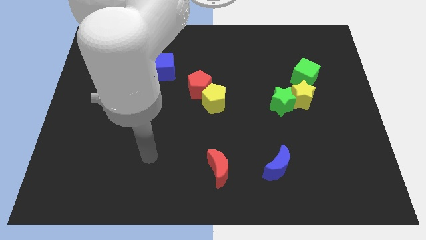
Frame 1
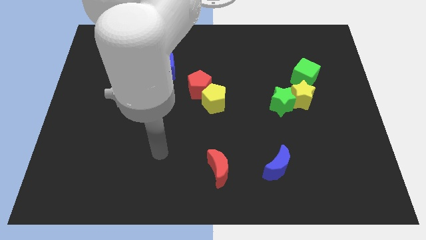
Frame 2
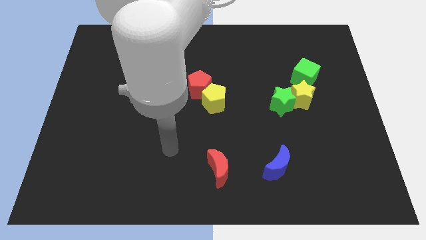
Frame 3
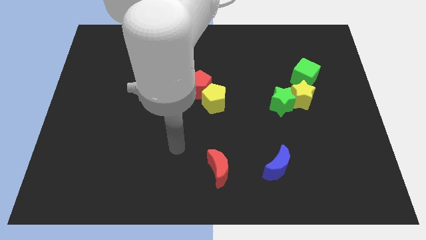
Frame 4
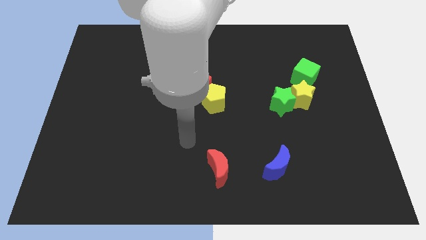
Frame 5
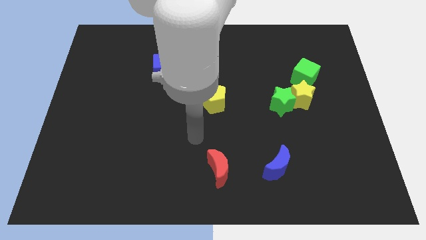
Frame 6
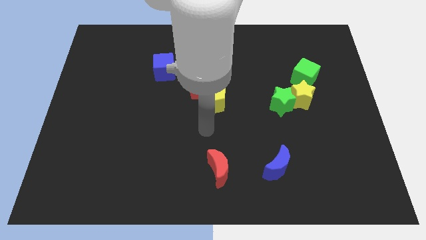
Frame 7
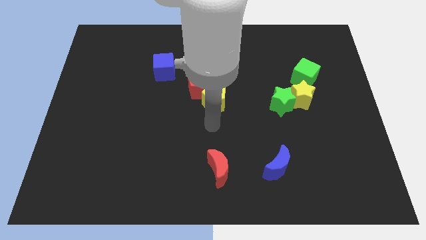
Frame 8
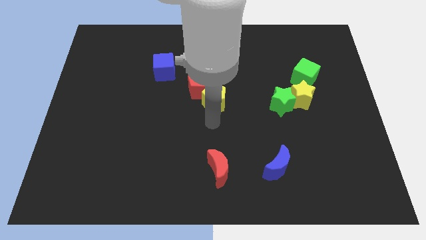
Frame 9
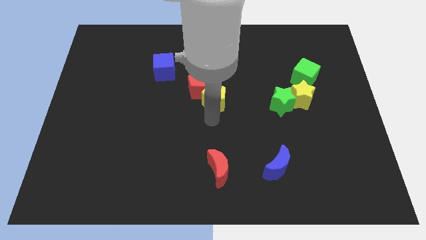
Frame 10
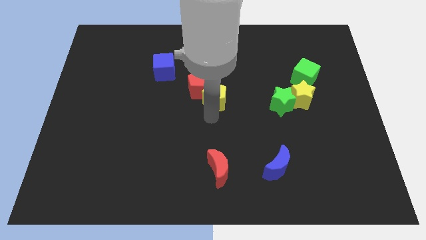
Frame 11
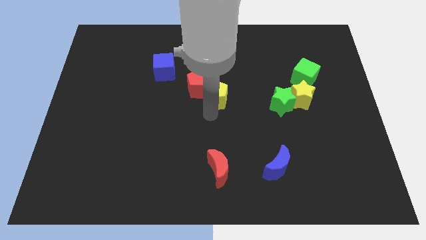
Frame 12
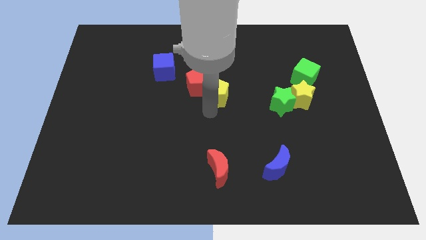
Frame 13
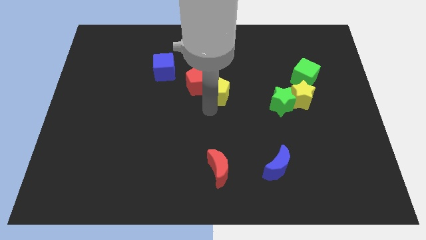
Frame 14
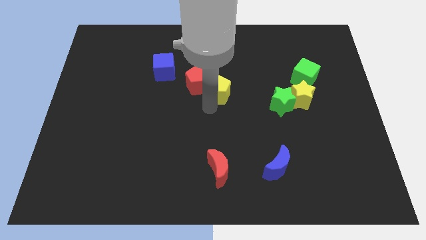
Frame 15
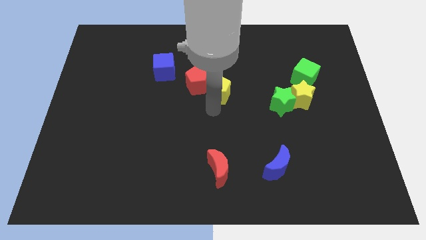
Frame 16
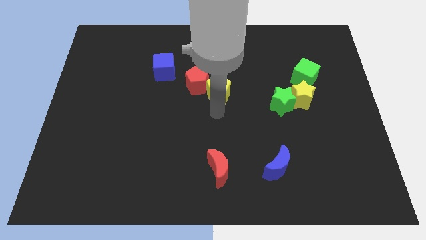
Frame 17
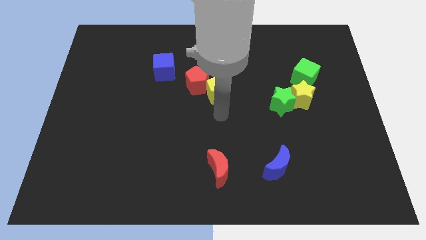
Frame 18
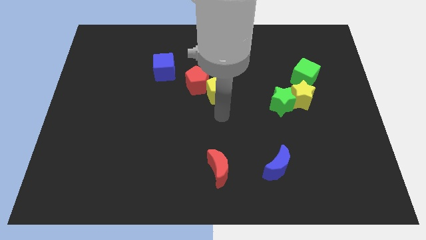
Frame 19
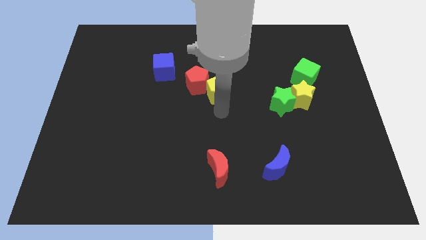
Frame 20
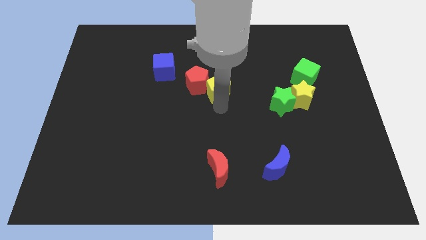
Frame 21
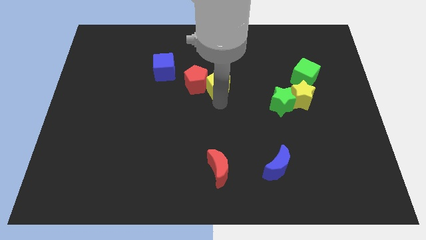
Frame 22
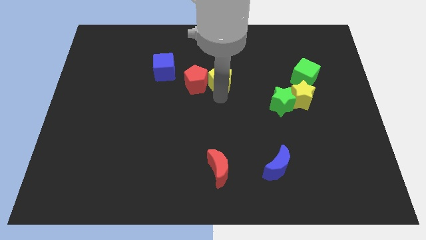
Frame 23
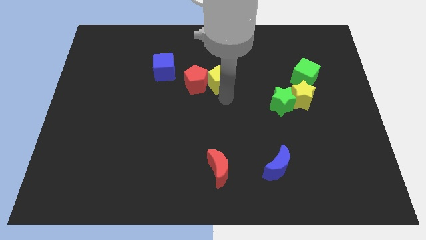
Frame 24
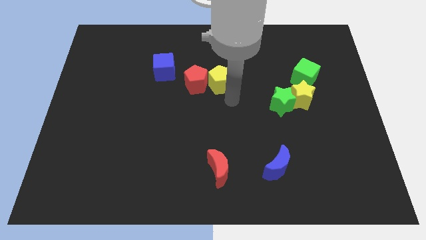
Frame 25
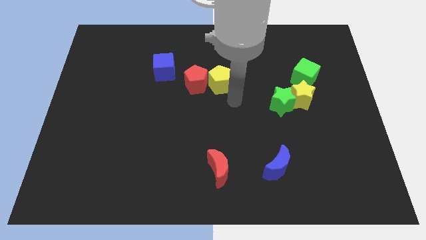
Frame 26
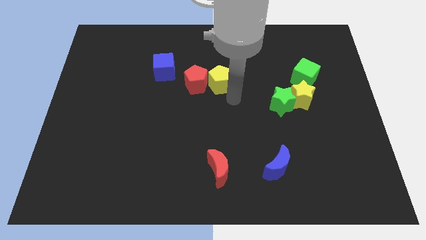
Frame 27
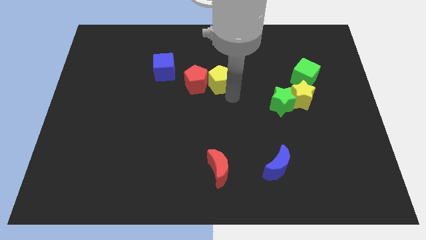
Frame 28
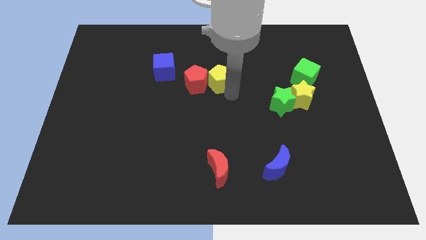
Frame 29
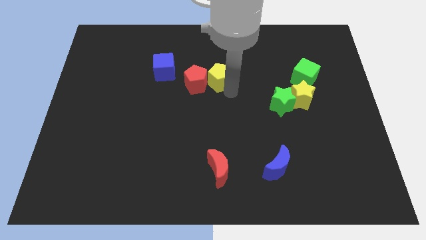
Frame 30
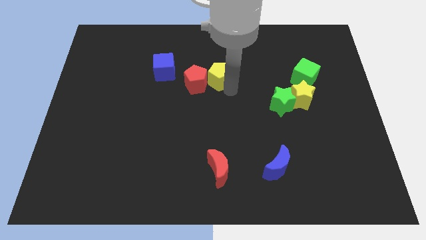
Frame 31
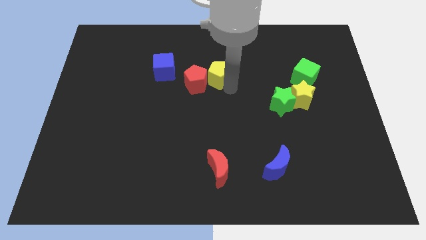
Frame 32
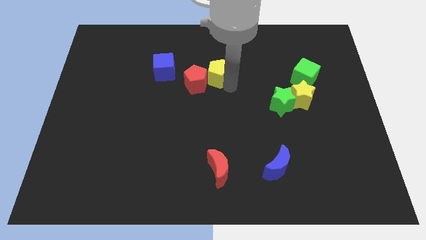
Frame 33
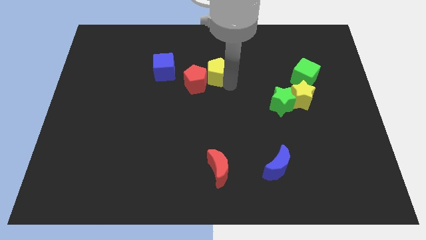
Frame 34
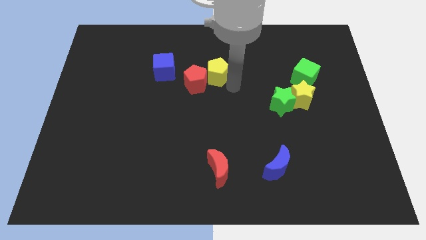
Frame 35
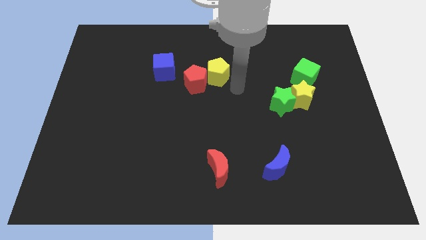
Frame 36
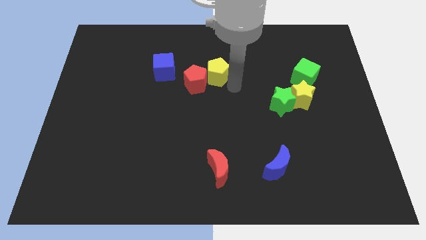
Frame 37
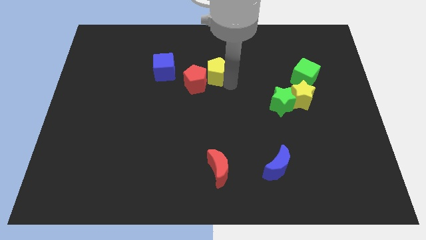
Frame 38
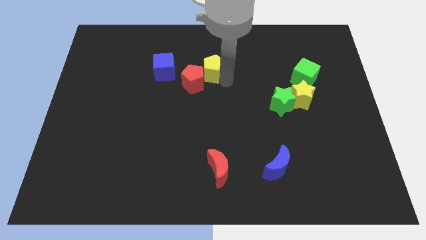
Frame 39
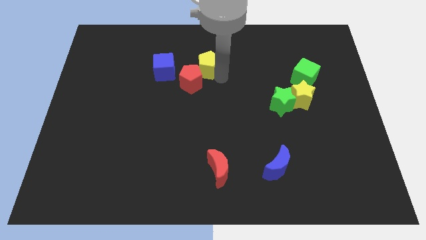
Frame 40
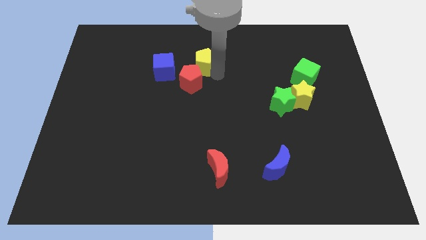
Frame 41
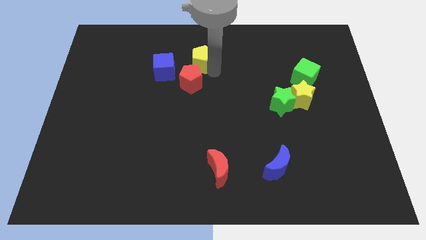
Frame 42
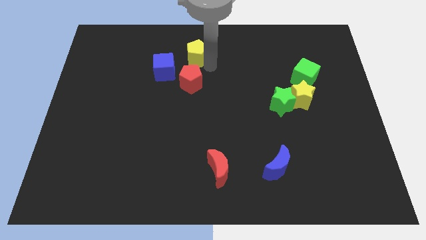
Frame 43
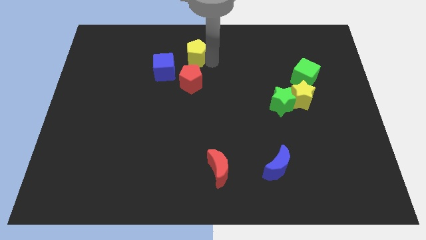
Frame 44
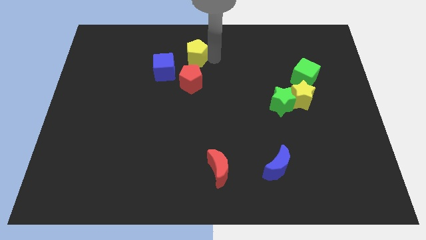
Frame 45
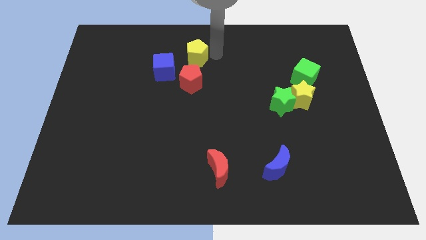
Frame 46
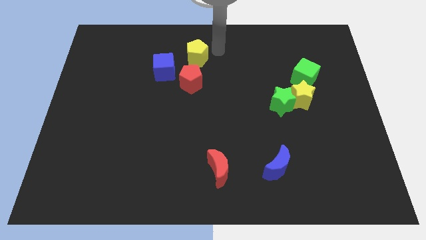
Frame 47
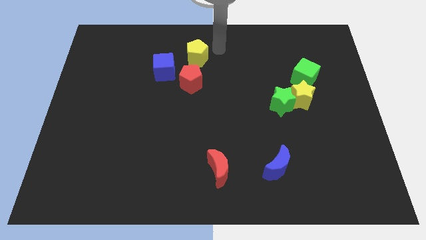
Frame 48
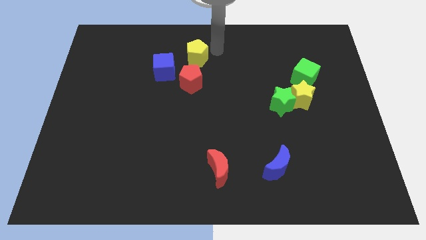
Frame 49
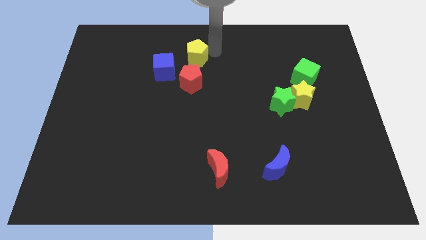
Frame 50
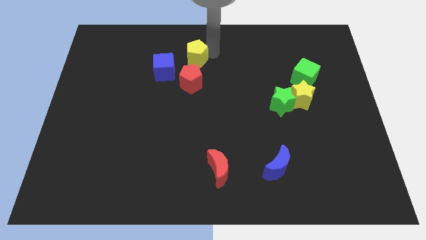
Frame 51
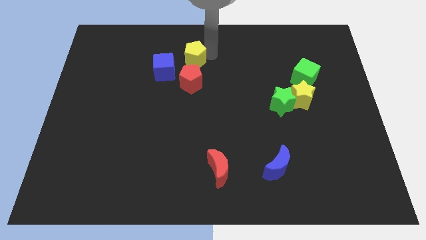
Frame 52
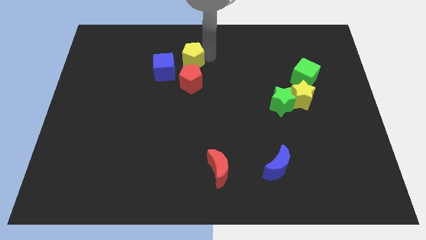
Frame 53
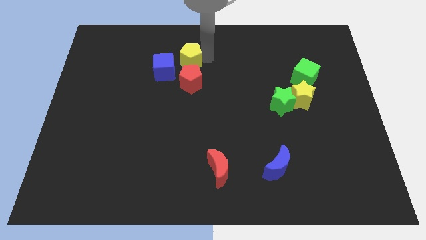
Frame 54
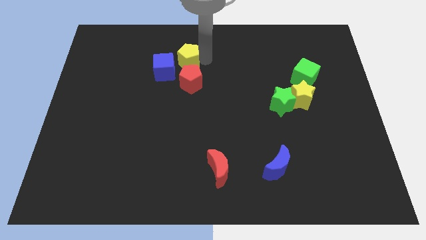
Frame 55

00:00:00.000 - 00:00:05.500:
move the yellow pentagon diagonally up and to the left of the red pentagon

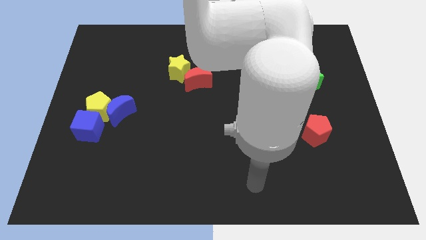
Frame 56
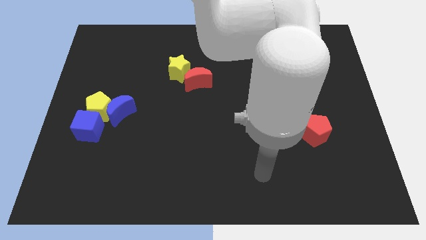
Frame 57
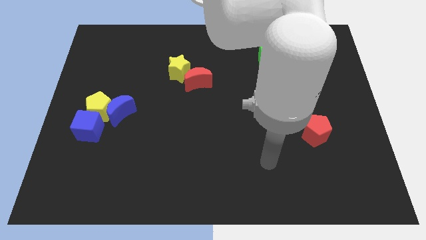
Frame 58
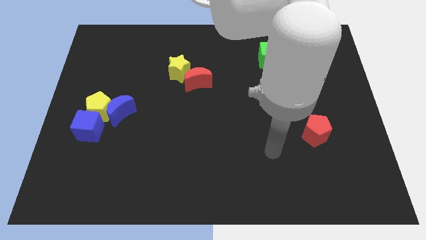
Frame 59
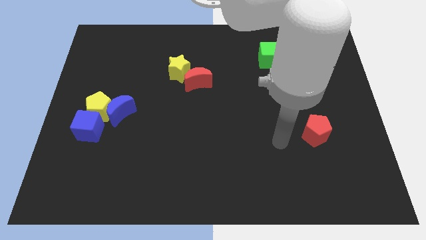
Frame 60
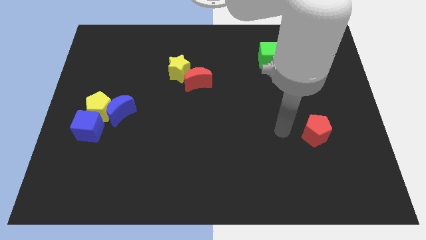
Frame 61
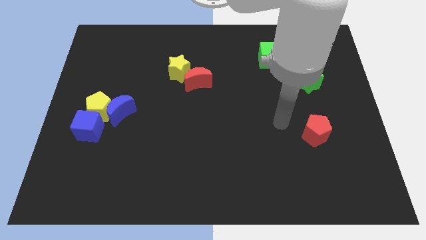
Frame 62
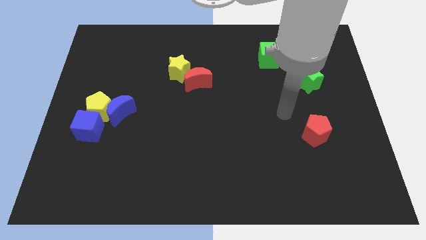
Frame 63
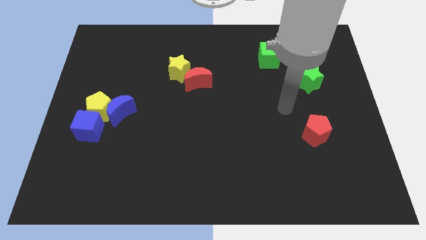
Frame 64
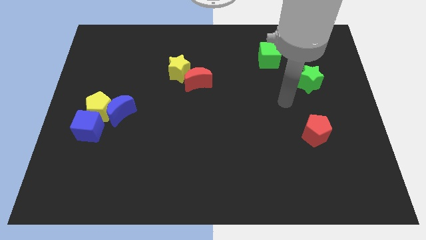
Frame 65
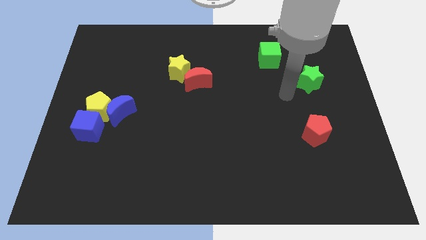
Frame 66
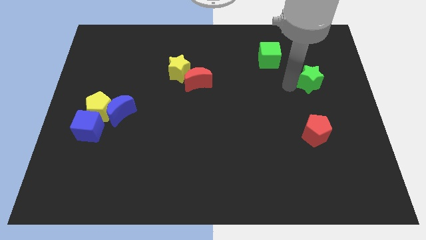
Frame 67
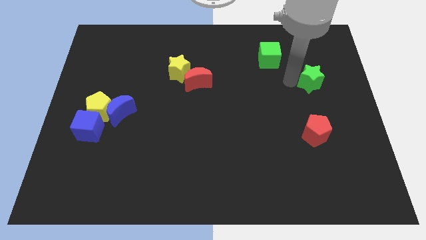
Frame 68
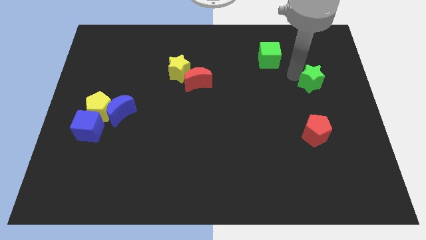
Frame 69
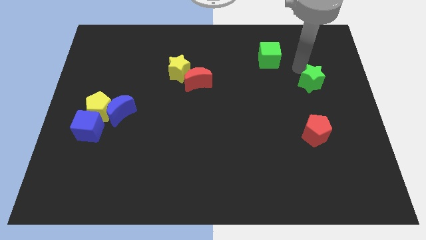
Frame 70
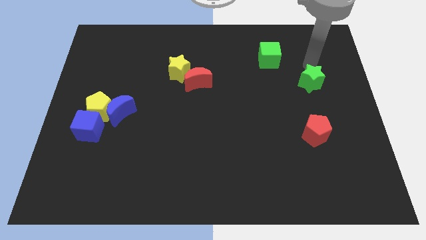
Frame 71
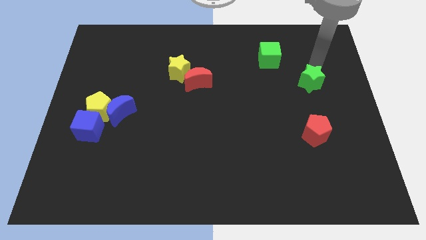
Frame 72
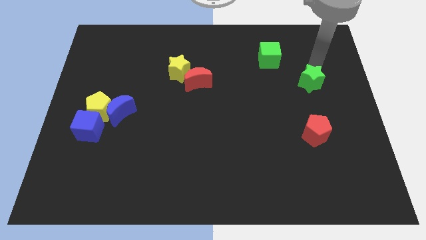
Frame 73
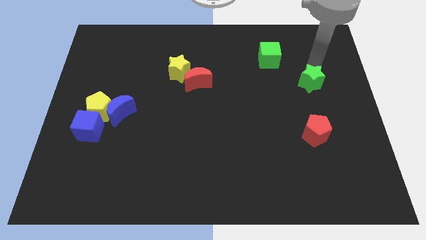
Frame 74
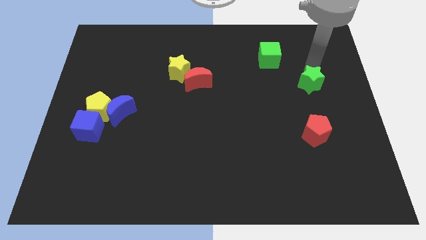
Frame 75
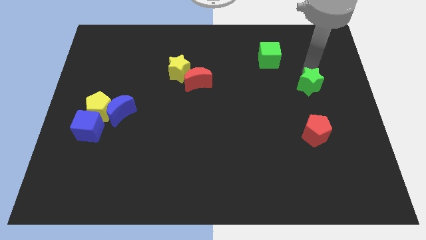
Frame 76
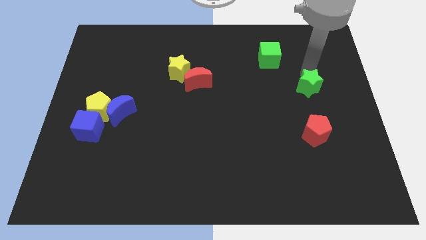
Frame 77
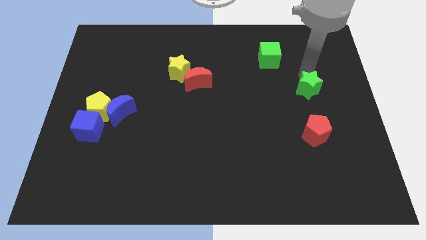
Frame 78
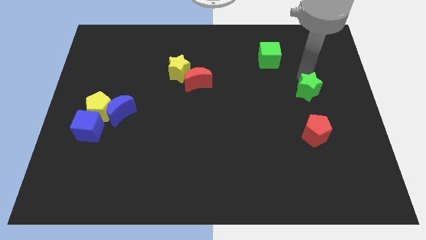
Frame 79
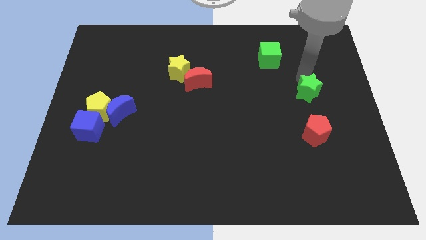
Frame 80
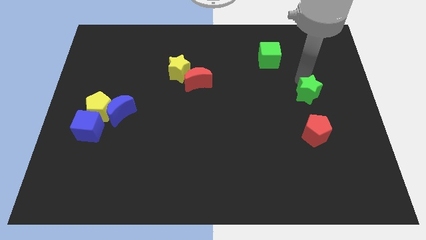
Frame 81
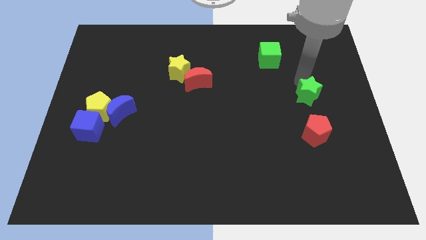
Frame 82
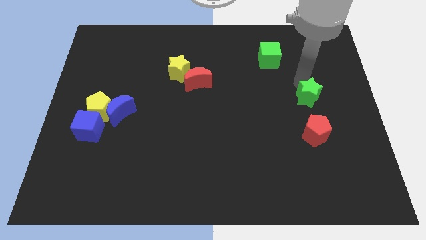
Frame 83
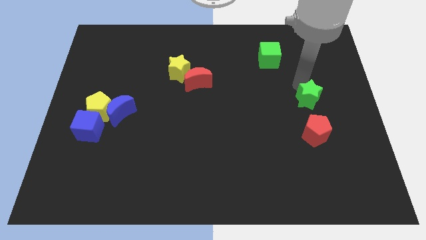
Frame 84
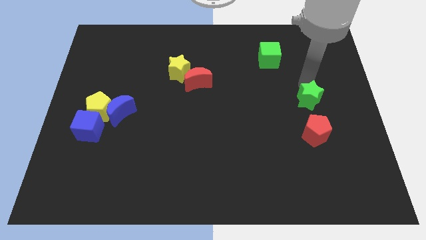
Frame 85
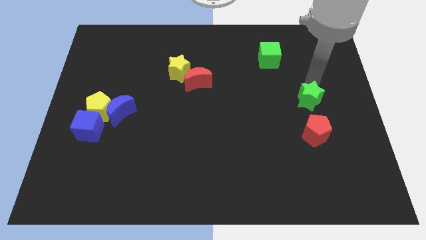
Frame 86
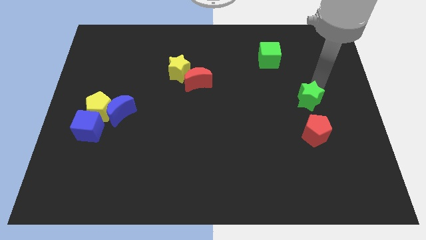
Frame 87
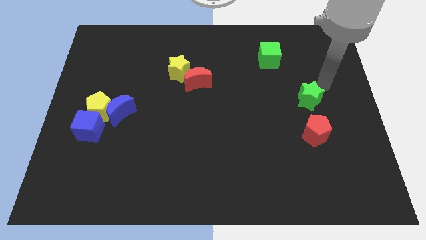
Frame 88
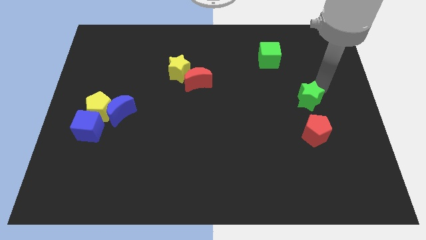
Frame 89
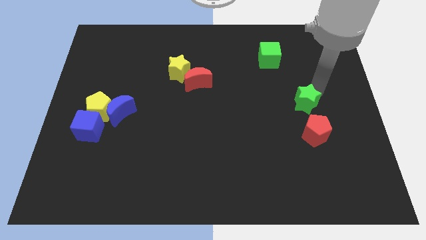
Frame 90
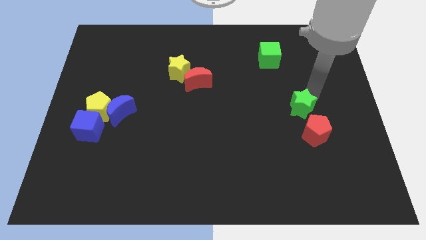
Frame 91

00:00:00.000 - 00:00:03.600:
move the green star to the top left of the red pentagon
